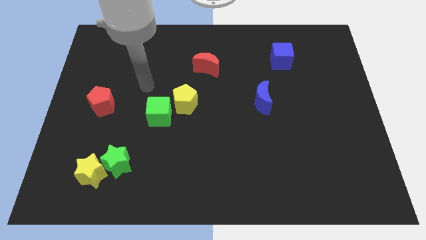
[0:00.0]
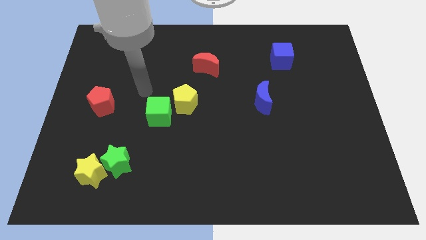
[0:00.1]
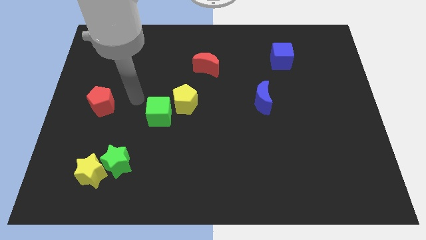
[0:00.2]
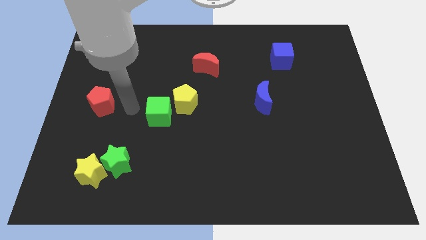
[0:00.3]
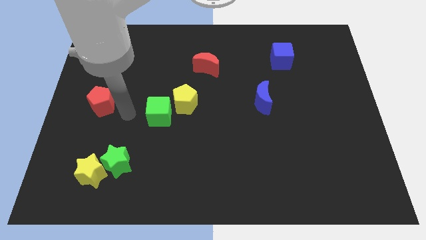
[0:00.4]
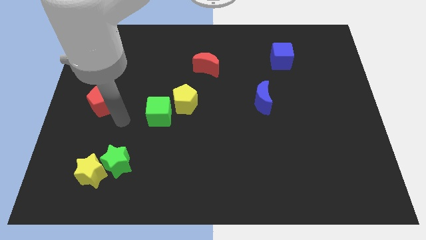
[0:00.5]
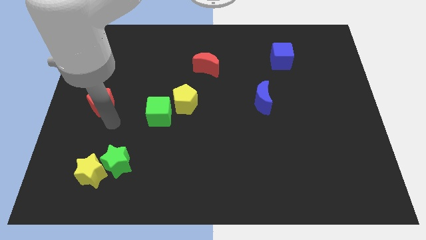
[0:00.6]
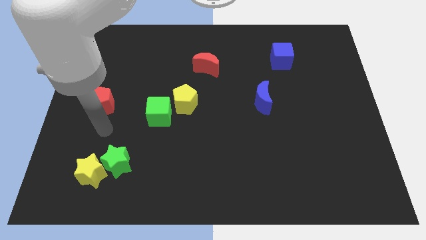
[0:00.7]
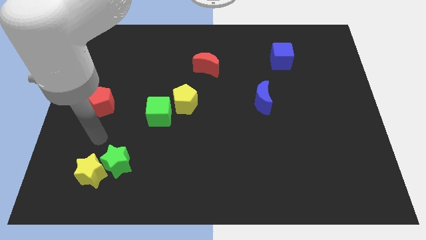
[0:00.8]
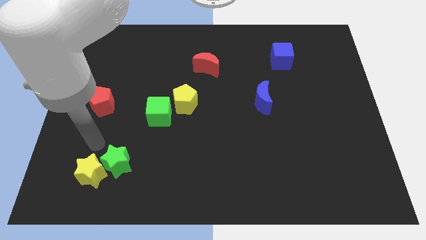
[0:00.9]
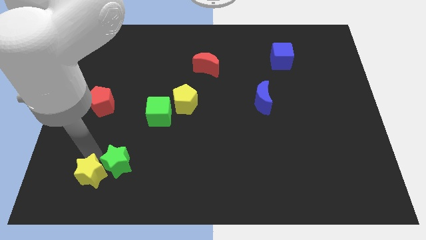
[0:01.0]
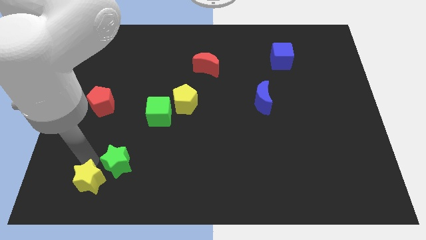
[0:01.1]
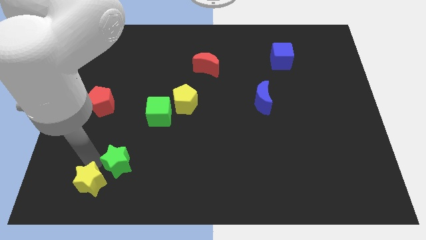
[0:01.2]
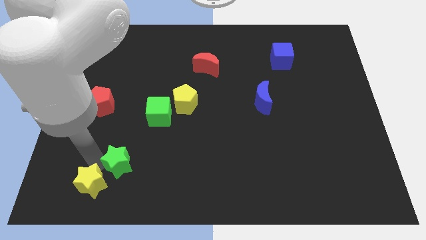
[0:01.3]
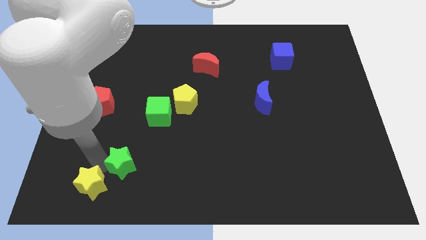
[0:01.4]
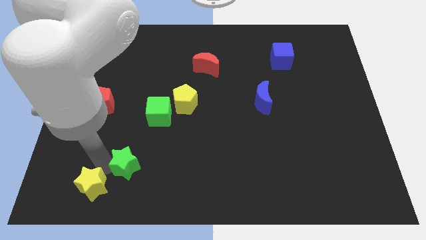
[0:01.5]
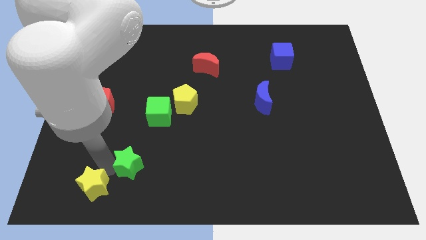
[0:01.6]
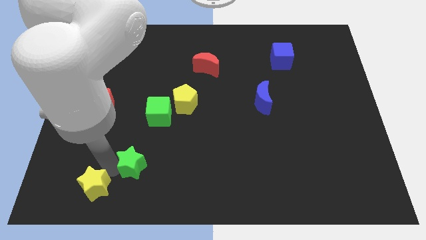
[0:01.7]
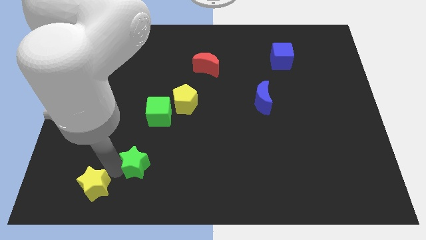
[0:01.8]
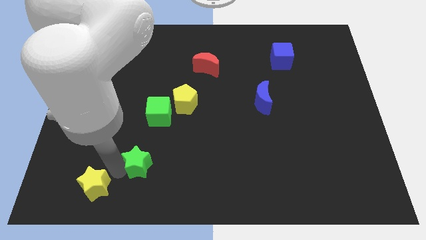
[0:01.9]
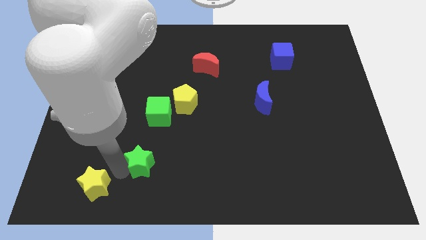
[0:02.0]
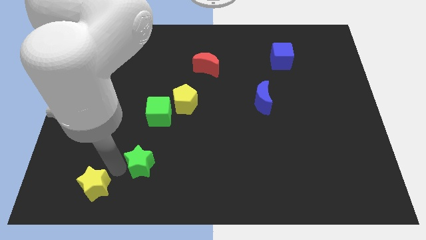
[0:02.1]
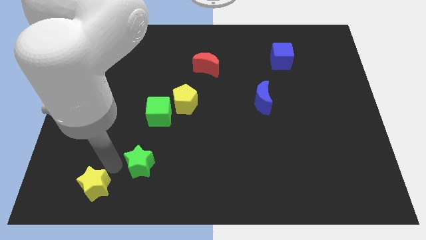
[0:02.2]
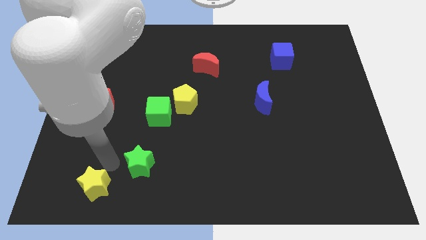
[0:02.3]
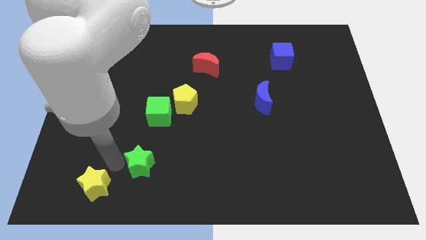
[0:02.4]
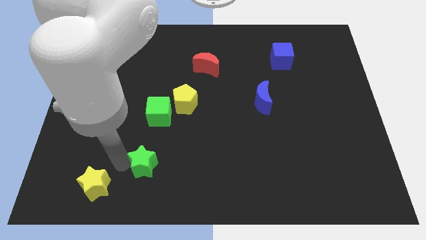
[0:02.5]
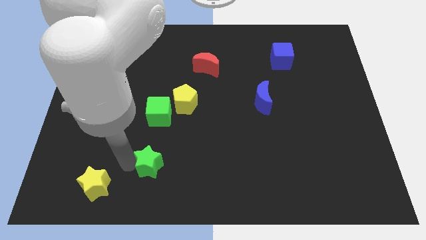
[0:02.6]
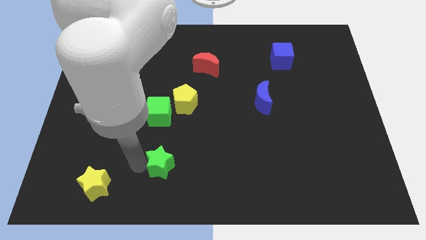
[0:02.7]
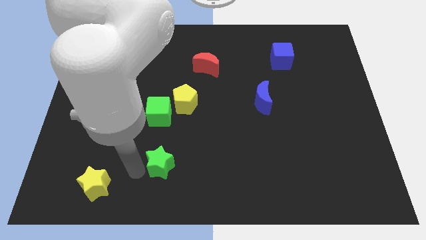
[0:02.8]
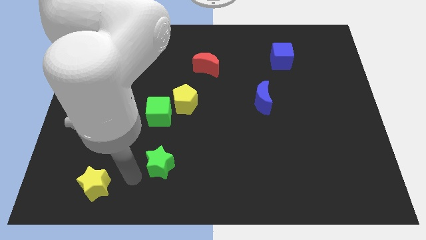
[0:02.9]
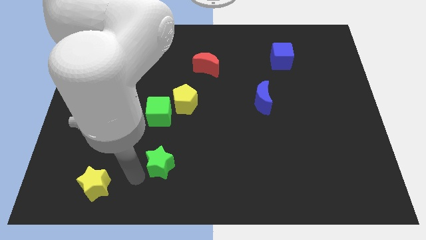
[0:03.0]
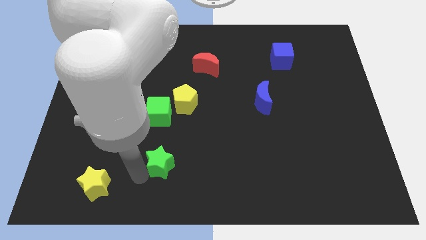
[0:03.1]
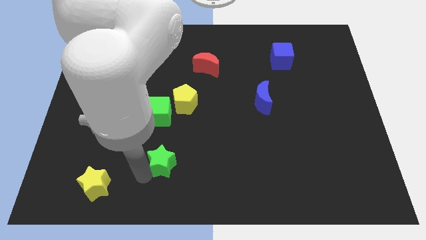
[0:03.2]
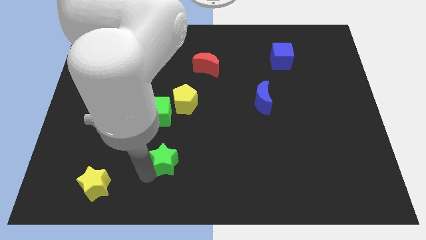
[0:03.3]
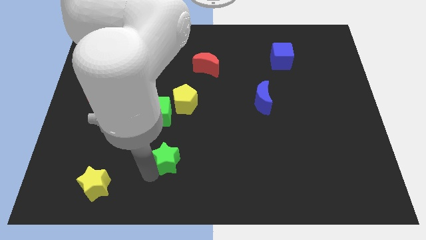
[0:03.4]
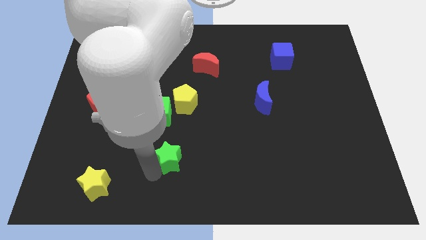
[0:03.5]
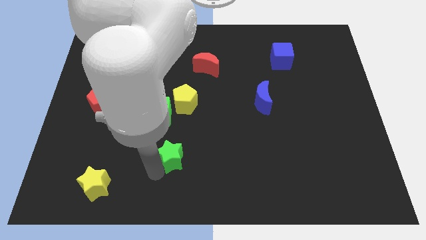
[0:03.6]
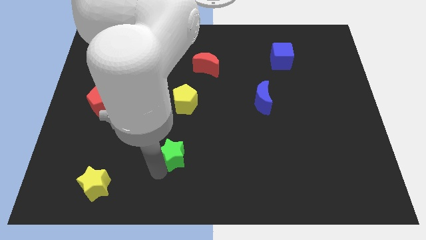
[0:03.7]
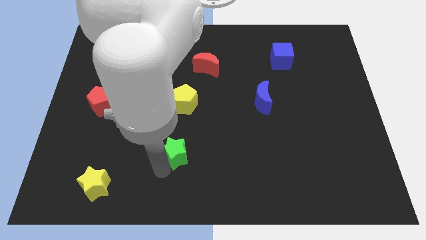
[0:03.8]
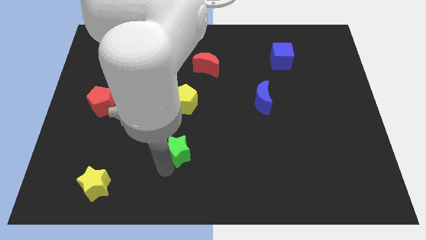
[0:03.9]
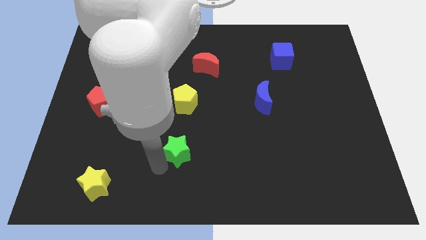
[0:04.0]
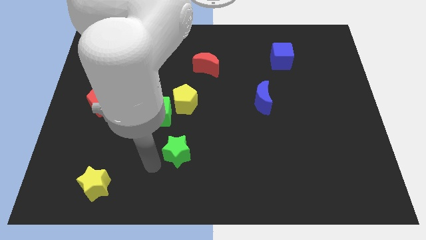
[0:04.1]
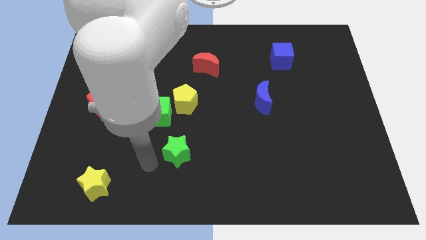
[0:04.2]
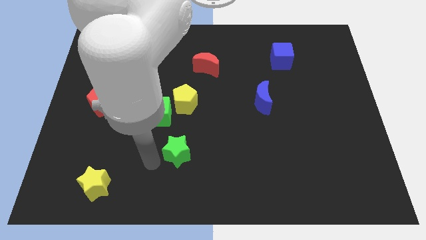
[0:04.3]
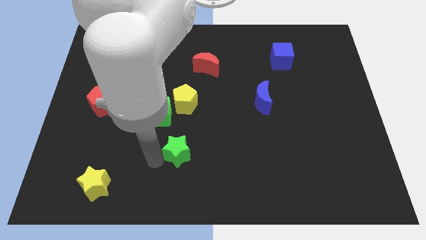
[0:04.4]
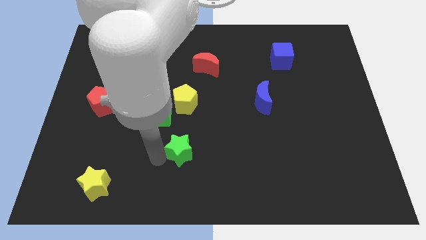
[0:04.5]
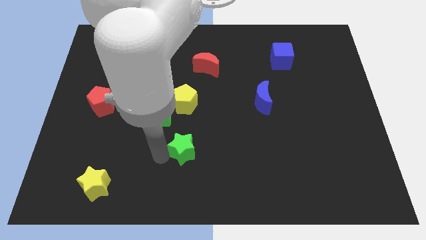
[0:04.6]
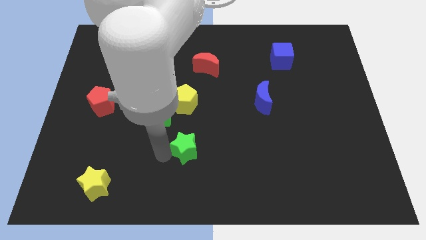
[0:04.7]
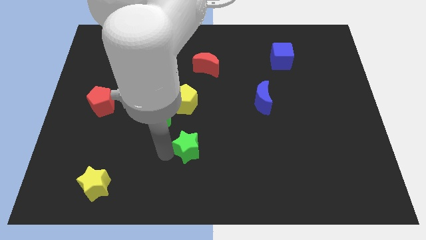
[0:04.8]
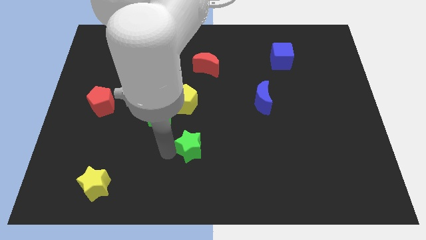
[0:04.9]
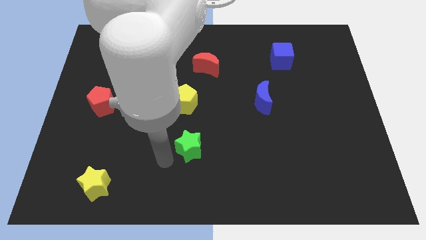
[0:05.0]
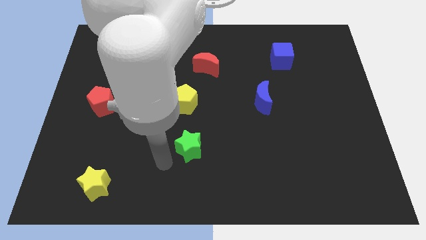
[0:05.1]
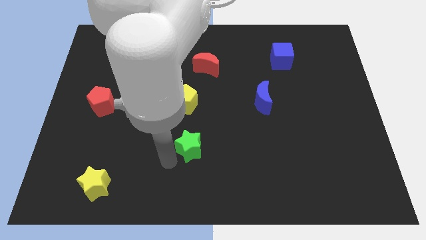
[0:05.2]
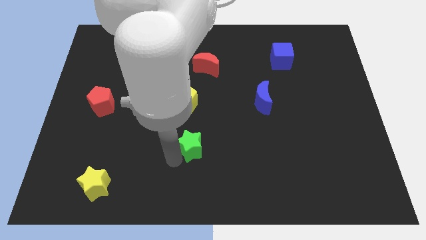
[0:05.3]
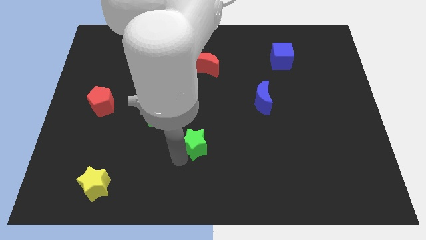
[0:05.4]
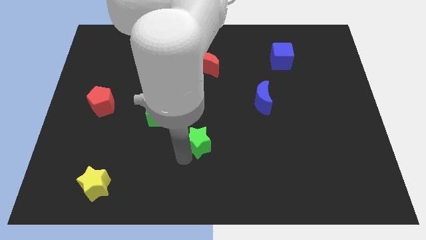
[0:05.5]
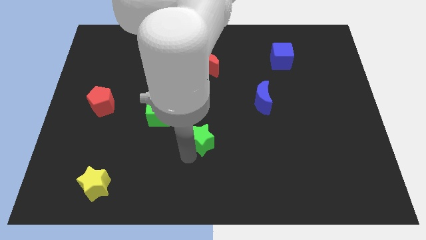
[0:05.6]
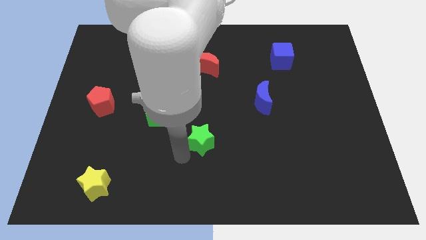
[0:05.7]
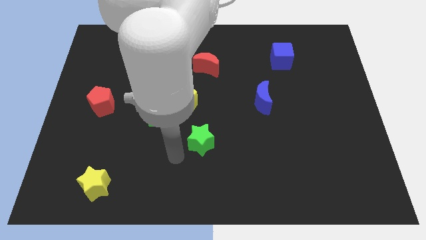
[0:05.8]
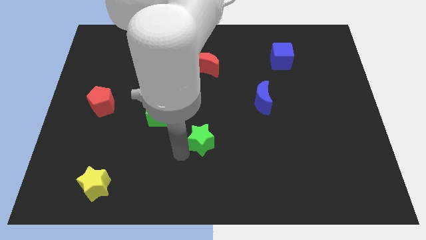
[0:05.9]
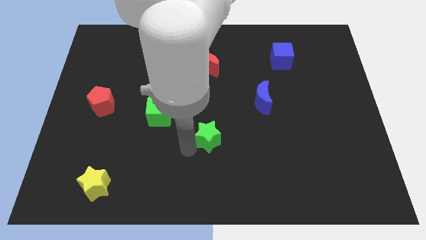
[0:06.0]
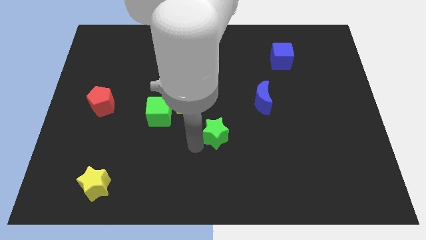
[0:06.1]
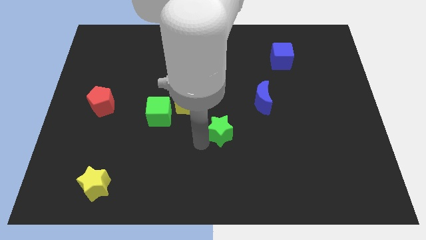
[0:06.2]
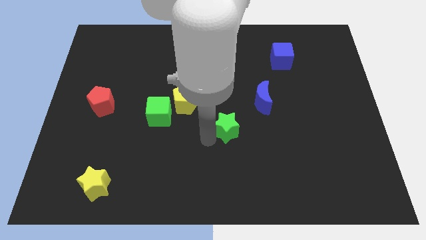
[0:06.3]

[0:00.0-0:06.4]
put the green star to the bottom left side of the blue moon

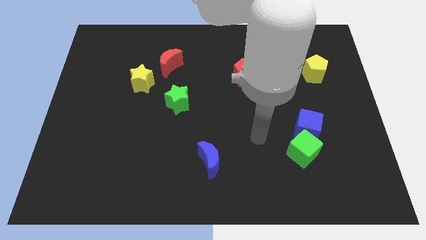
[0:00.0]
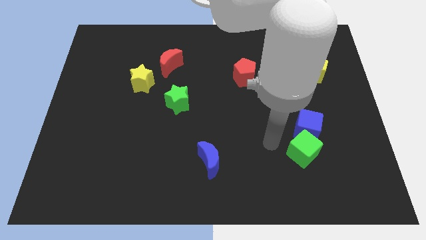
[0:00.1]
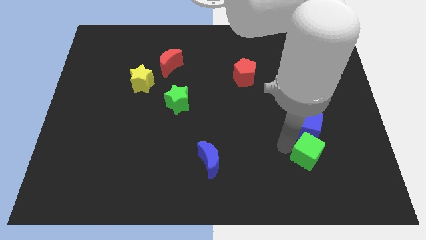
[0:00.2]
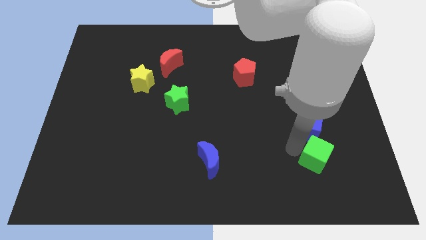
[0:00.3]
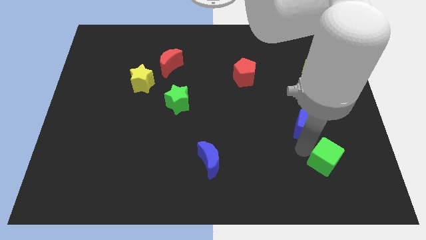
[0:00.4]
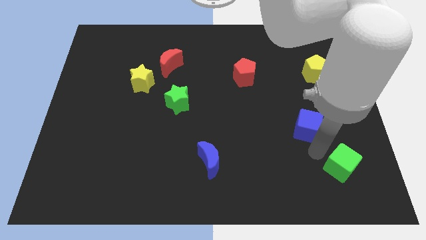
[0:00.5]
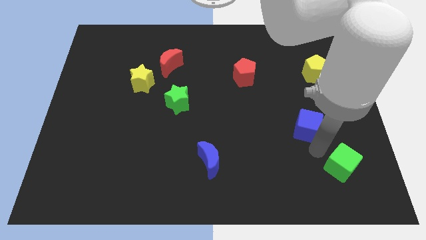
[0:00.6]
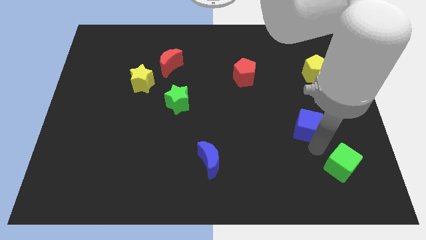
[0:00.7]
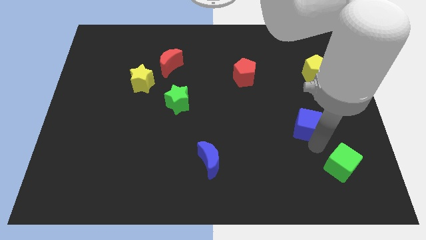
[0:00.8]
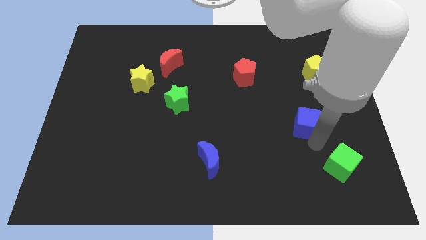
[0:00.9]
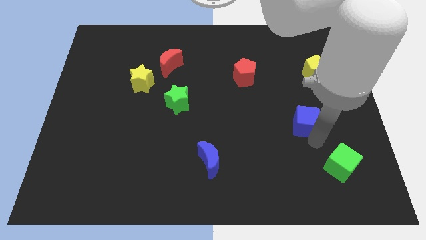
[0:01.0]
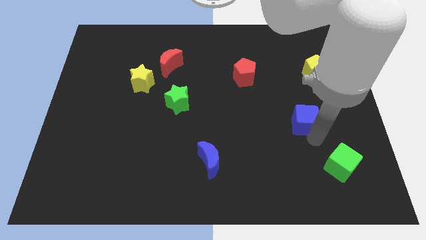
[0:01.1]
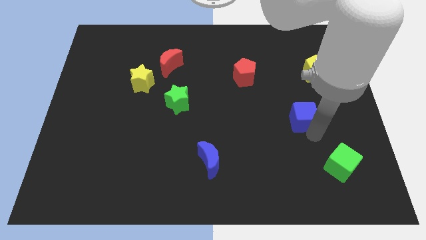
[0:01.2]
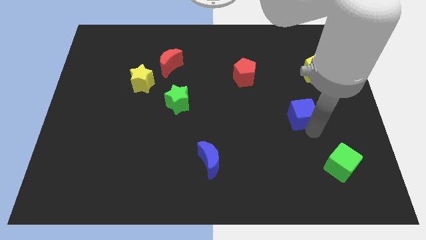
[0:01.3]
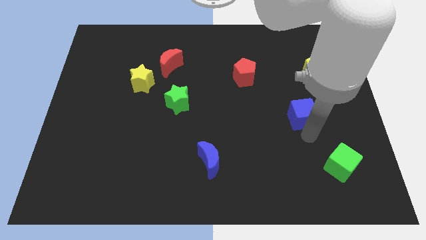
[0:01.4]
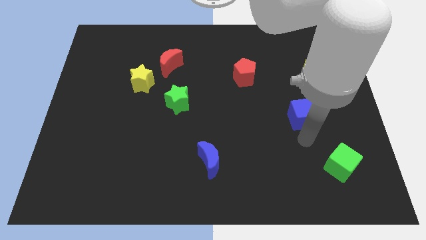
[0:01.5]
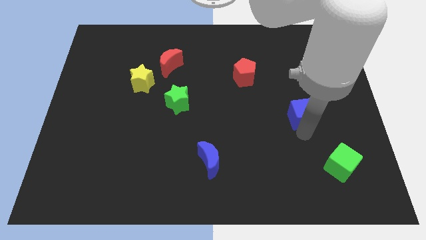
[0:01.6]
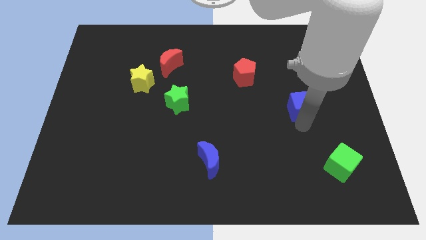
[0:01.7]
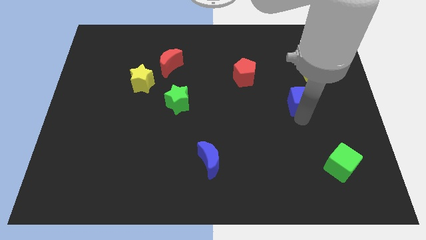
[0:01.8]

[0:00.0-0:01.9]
move the blue cube to the bottom left of the yellow pentagon
